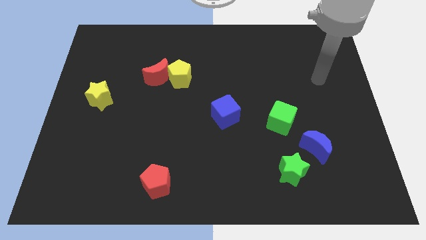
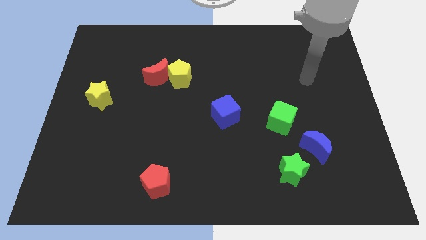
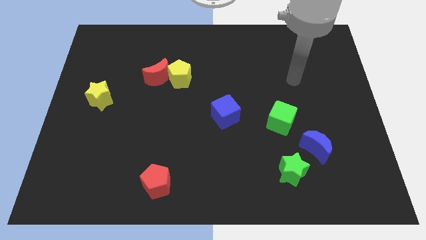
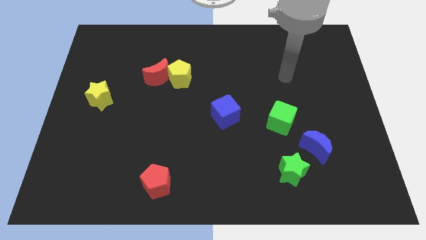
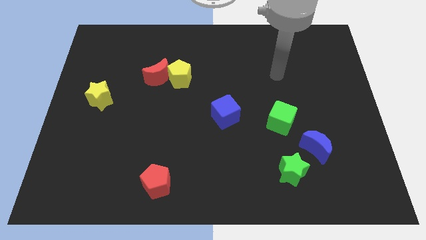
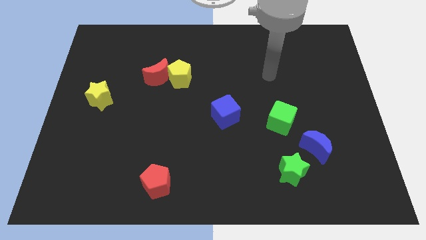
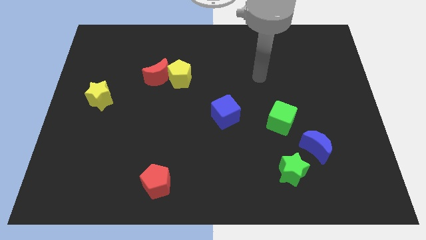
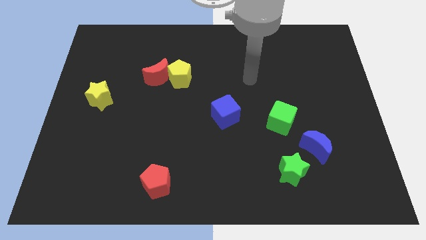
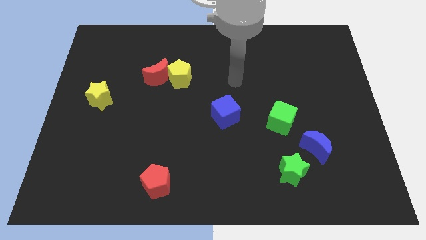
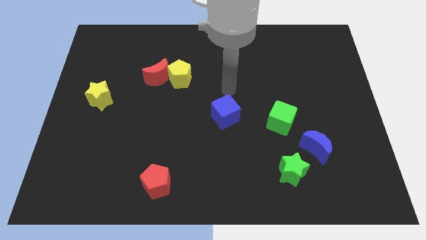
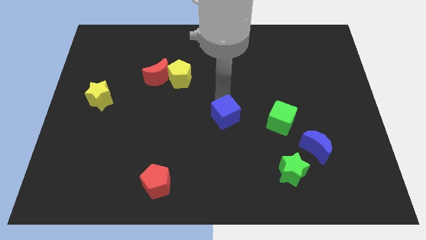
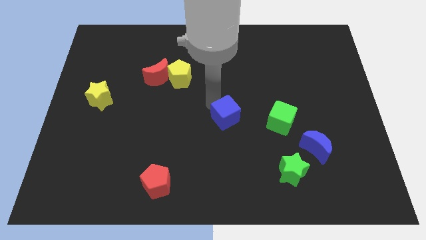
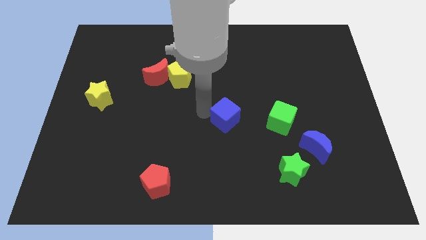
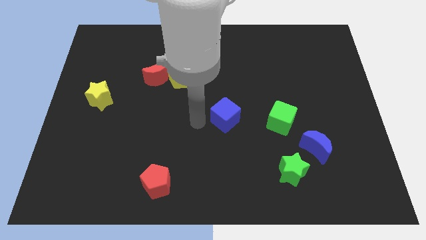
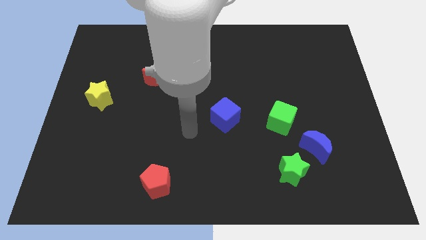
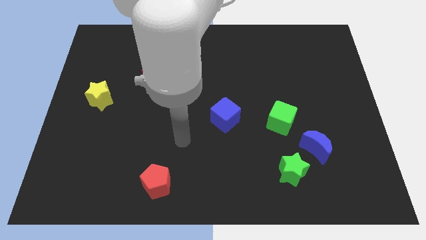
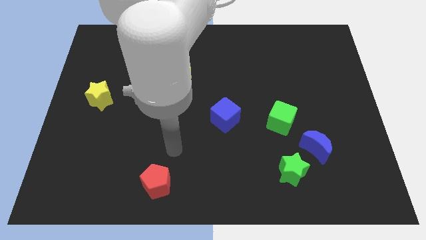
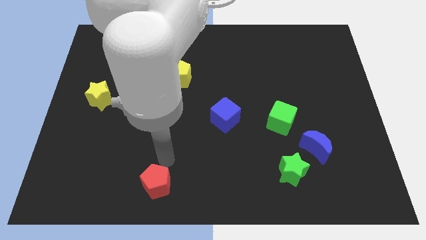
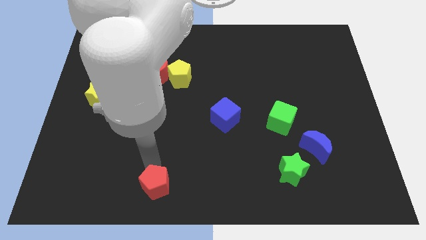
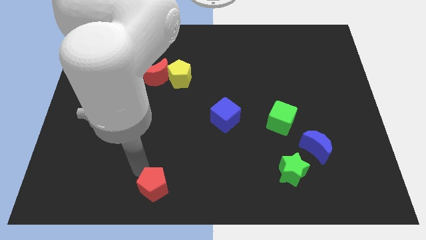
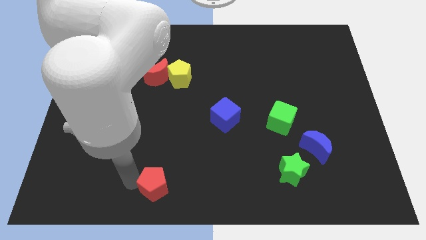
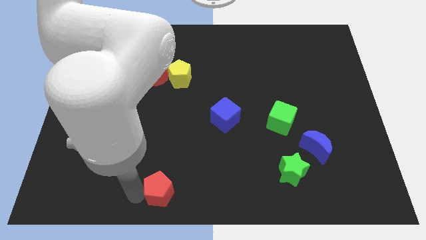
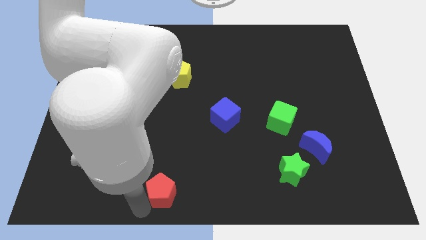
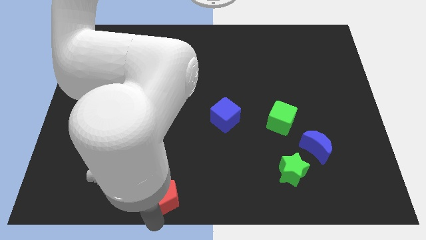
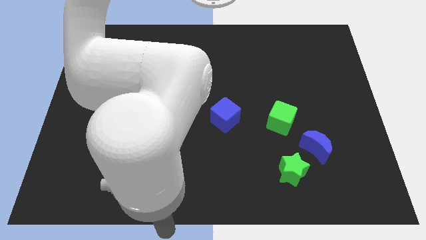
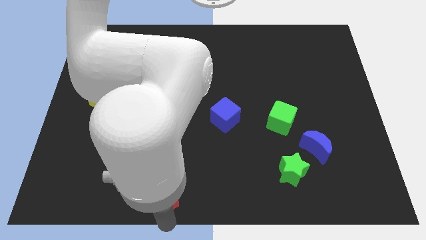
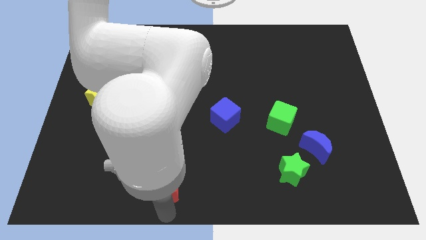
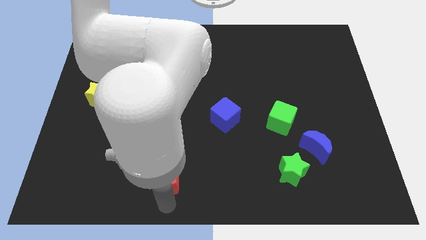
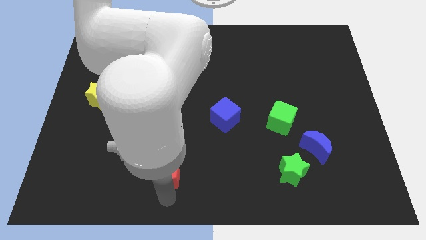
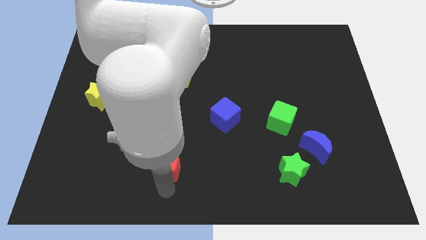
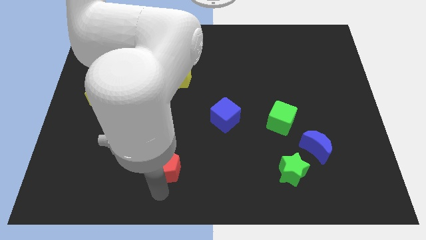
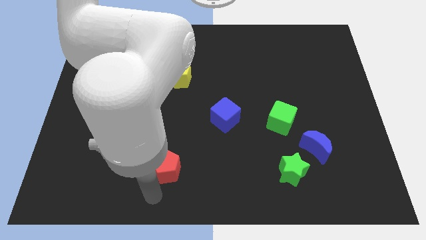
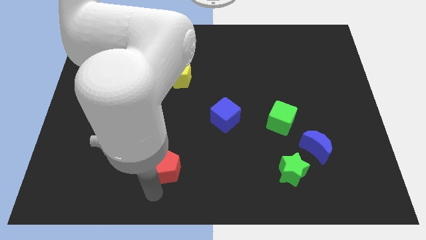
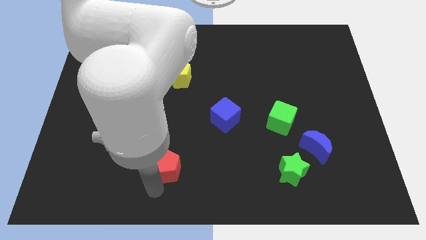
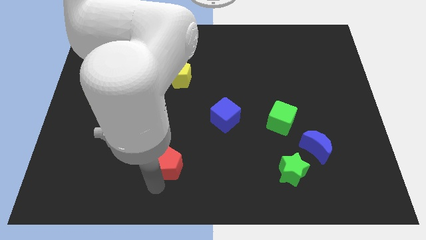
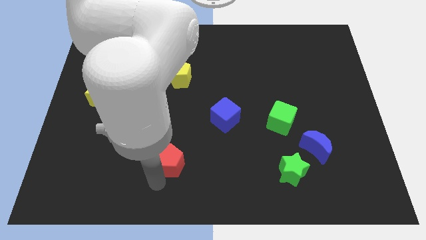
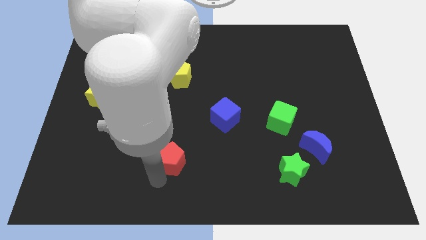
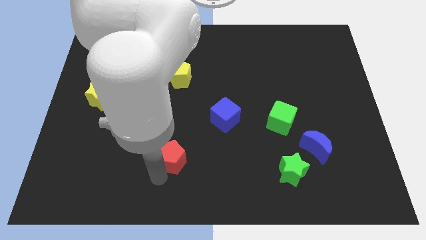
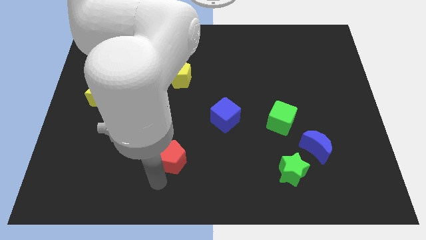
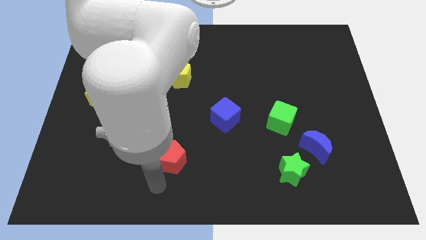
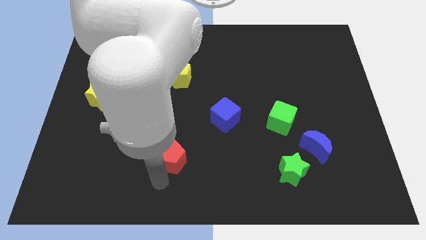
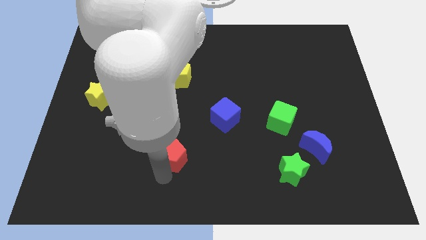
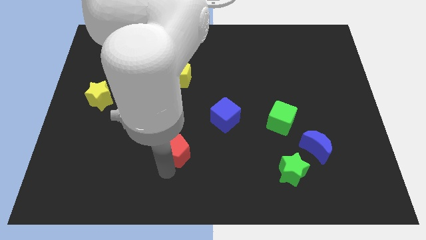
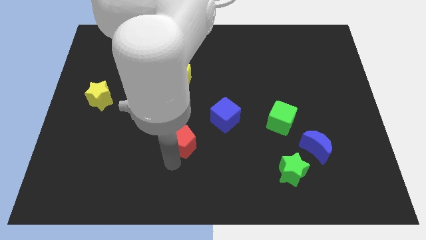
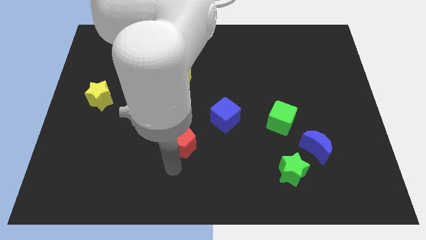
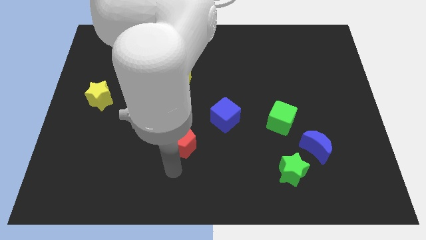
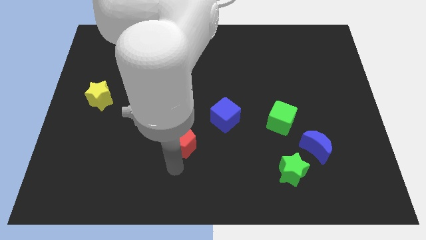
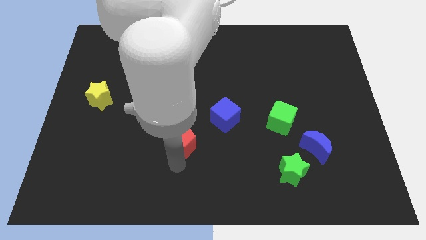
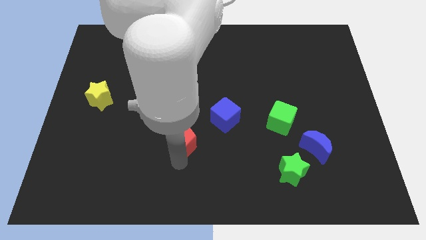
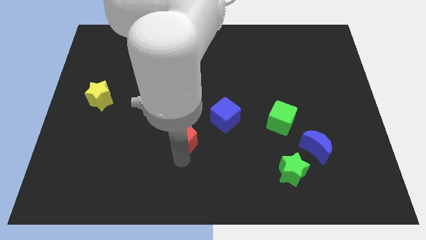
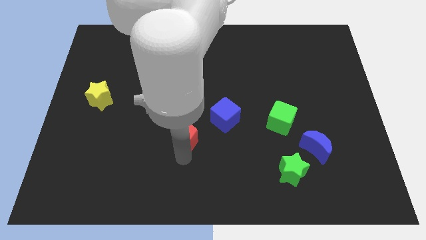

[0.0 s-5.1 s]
move the red pentagon to the middle of the board

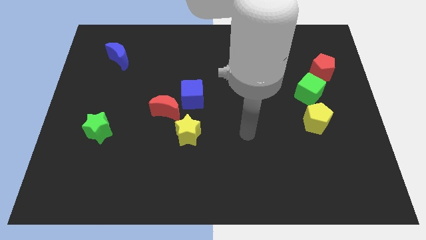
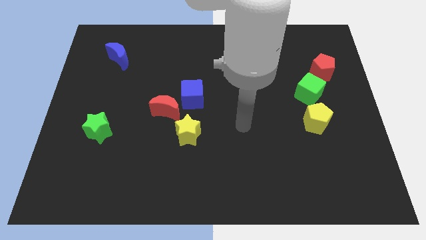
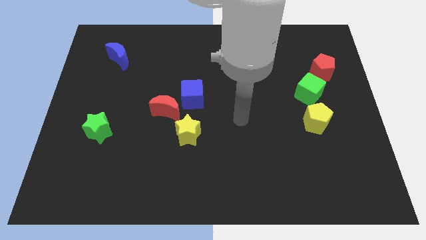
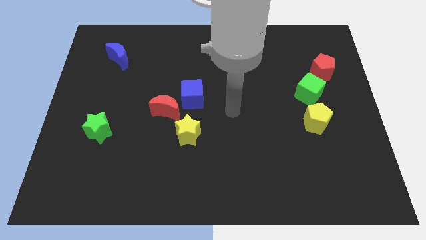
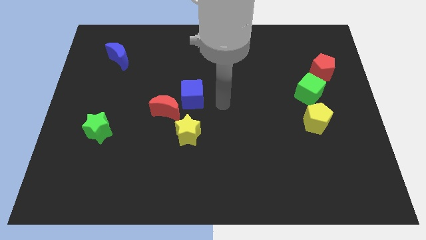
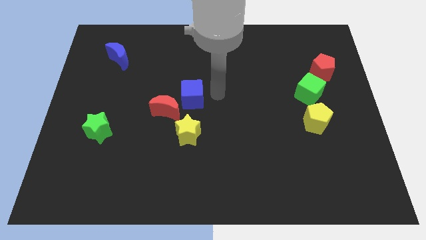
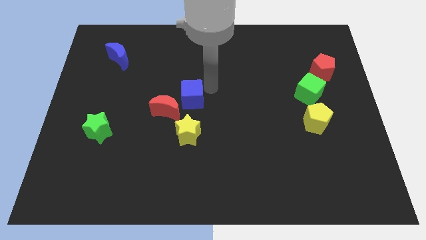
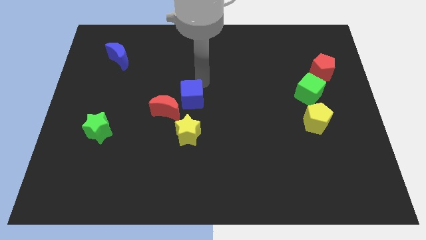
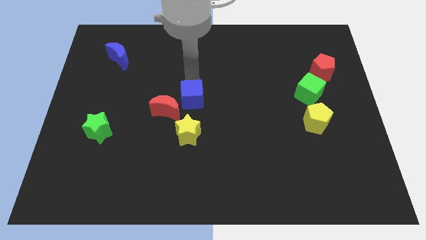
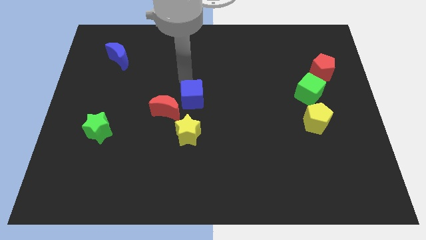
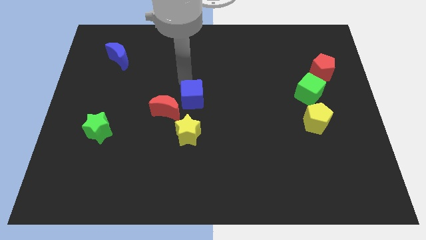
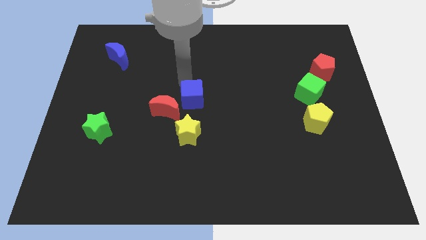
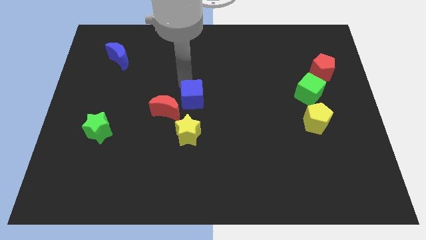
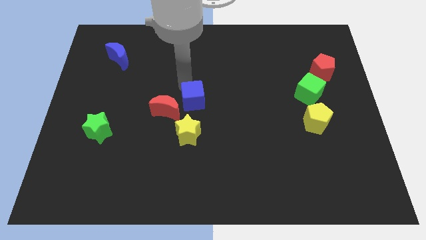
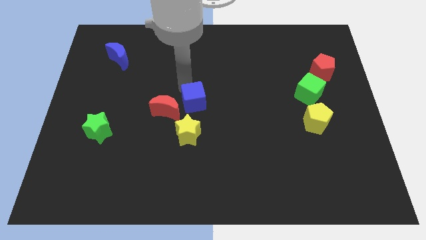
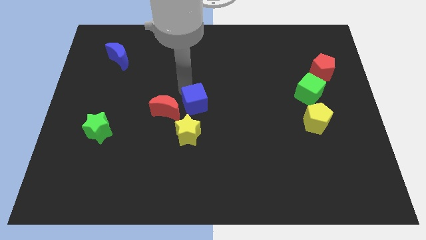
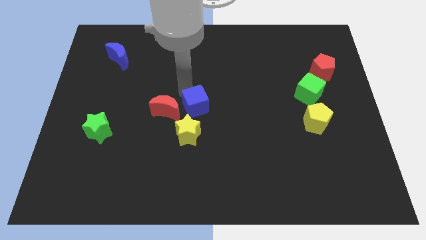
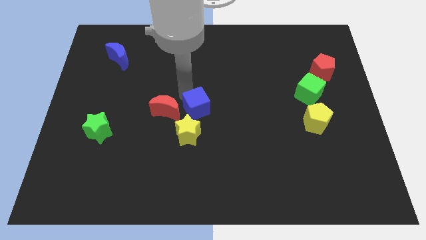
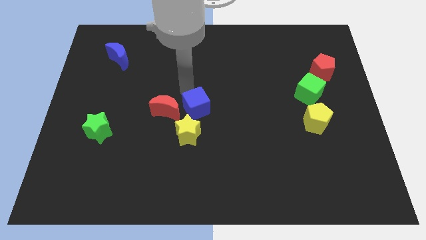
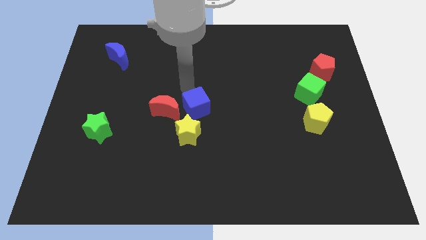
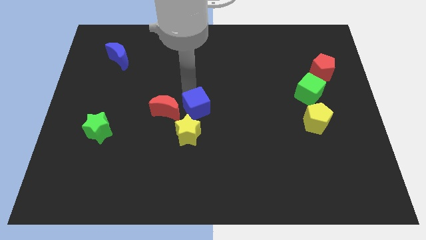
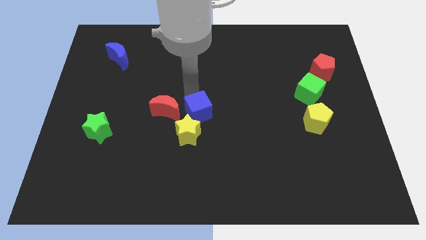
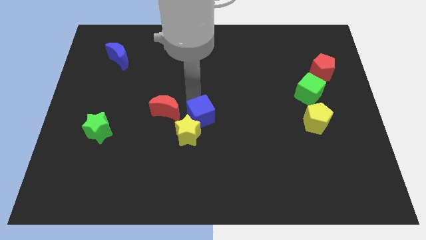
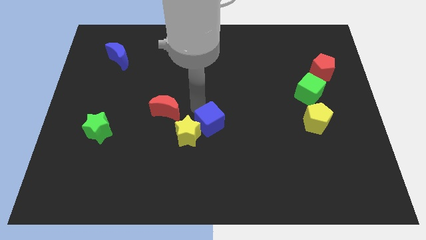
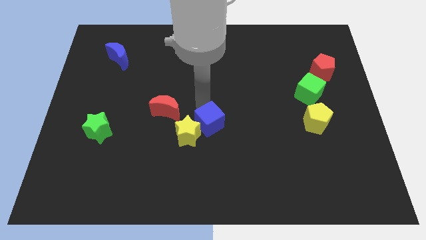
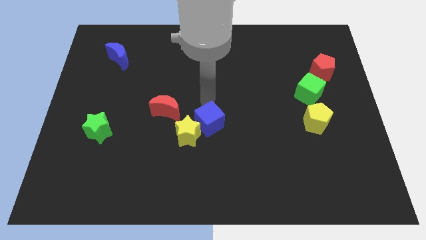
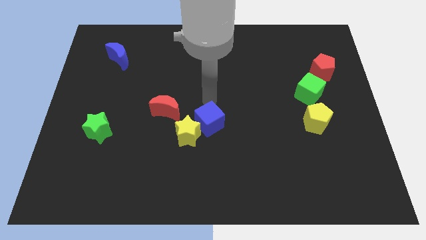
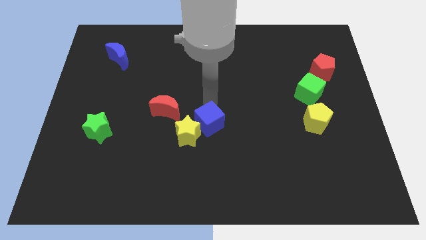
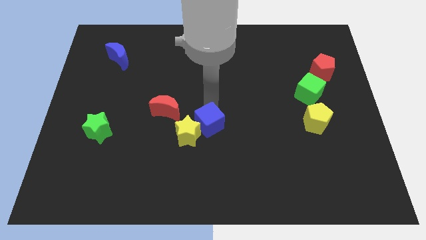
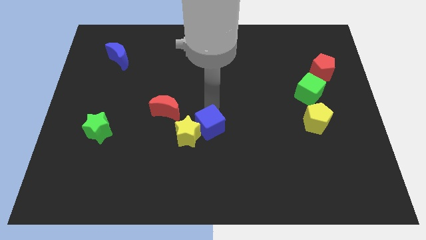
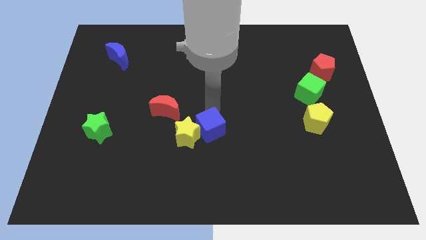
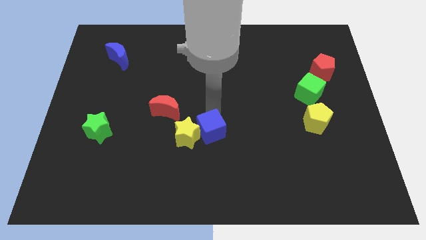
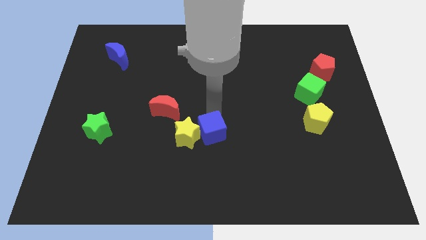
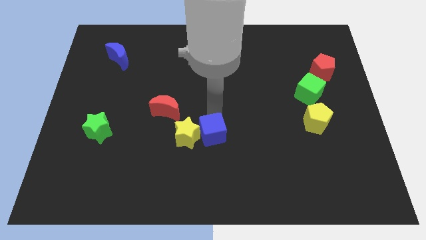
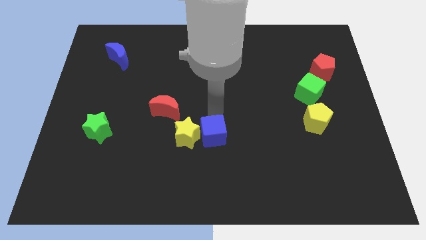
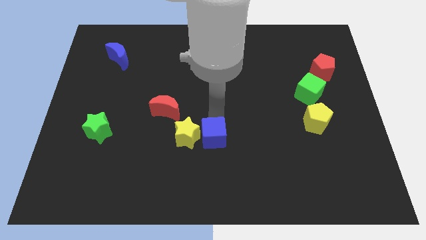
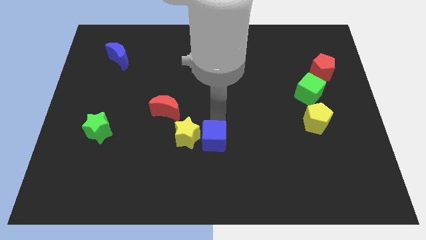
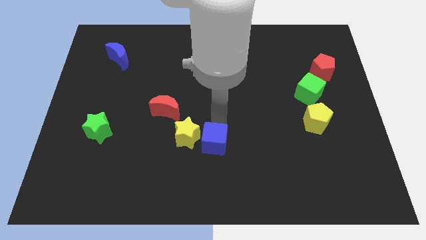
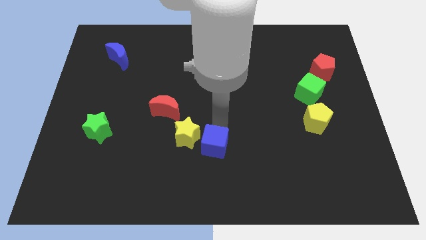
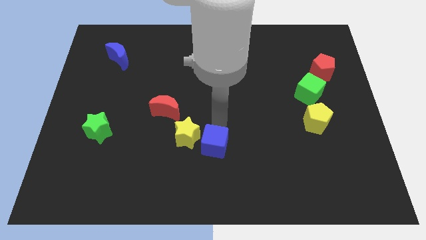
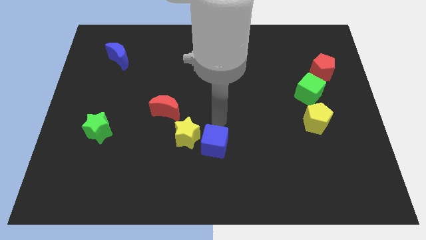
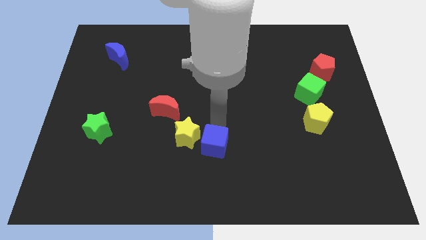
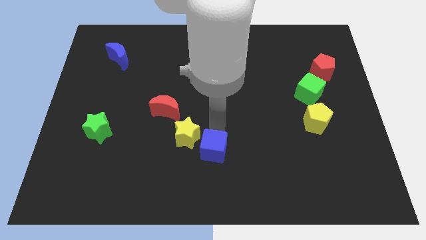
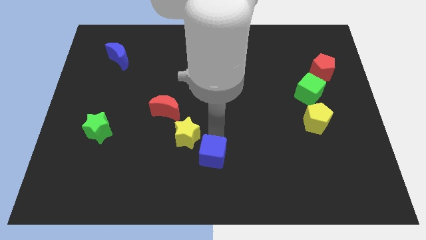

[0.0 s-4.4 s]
put the blue cube to the bottom
